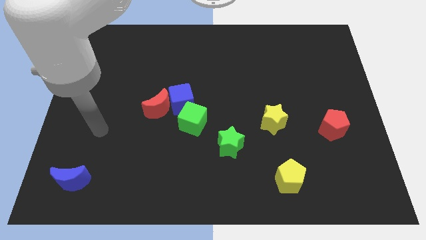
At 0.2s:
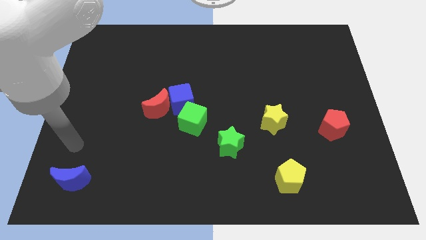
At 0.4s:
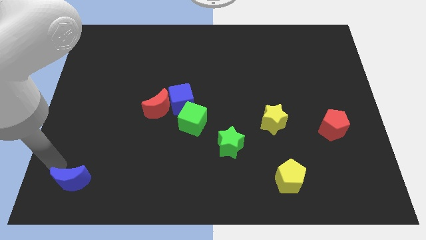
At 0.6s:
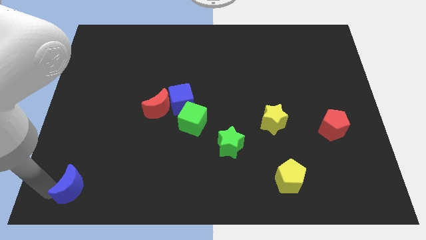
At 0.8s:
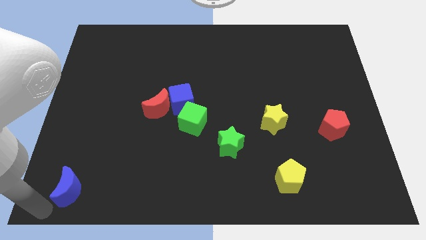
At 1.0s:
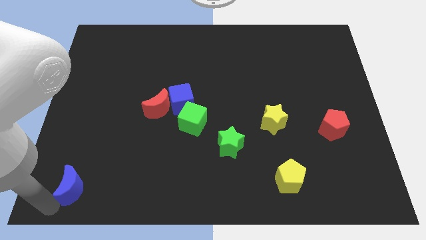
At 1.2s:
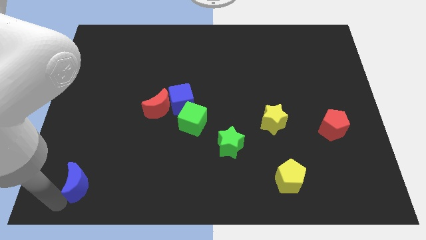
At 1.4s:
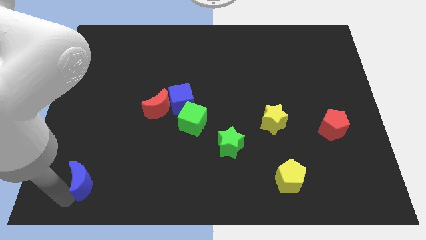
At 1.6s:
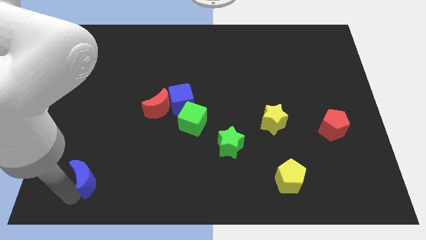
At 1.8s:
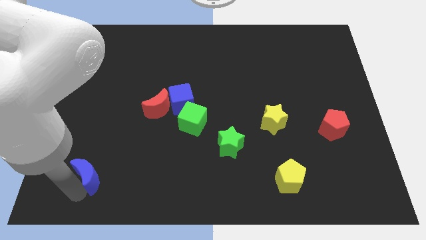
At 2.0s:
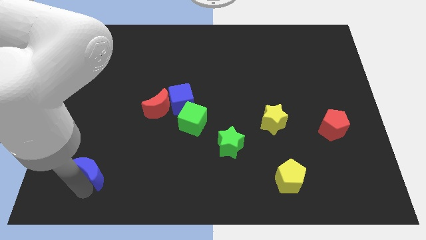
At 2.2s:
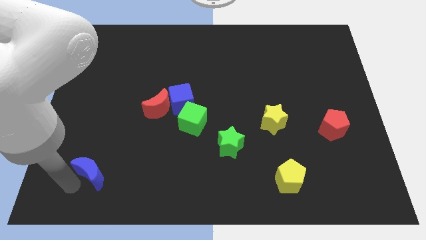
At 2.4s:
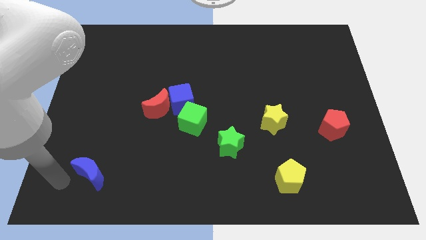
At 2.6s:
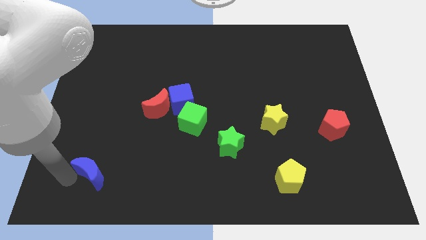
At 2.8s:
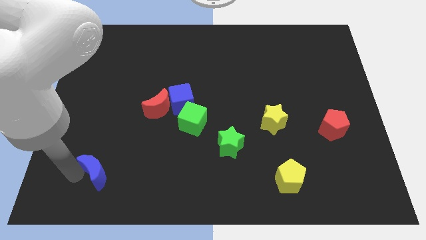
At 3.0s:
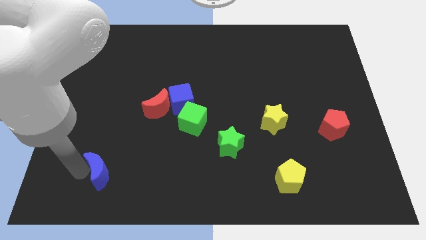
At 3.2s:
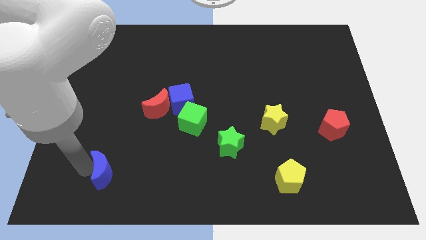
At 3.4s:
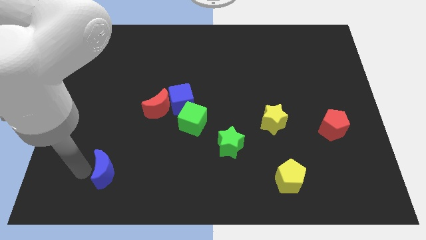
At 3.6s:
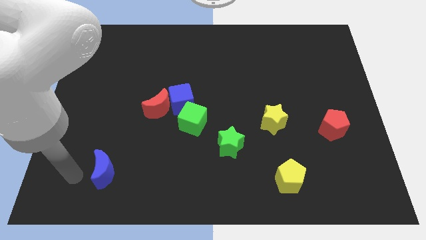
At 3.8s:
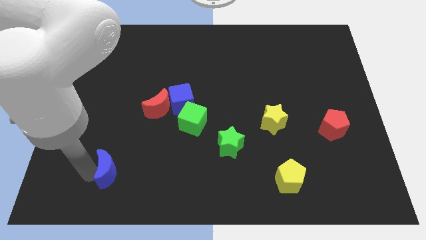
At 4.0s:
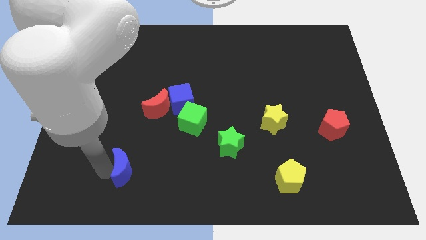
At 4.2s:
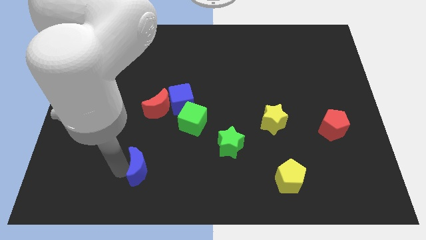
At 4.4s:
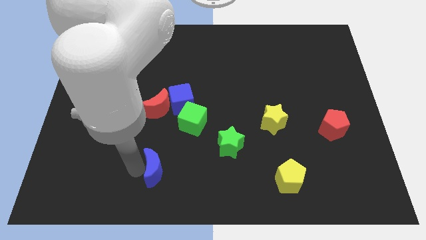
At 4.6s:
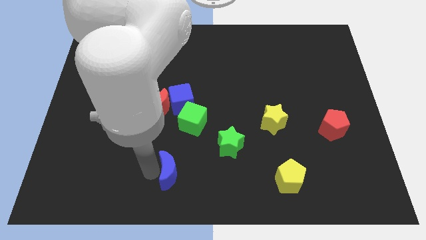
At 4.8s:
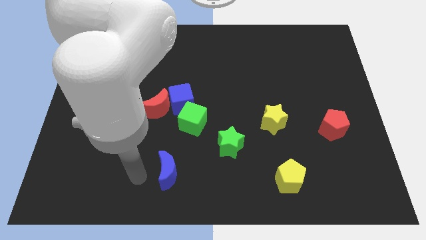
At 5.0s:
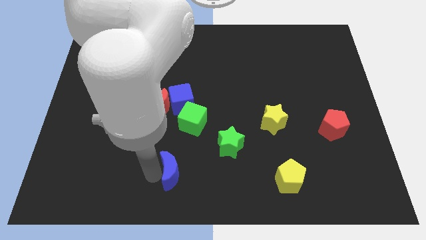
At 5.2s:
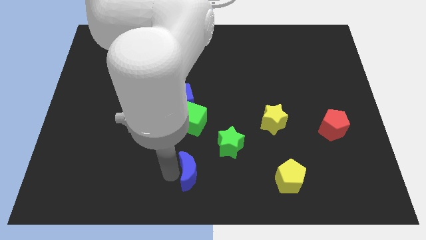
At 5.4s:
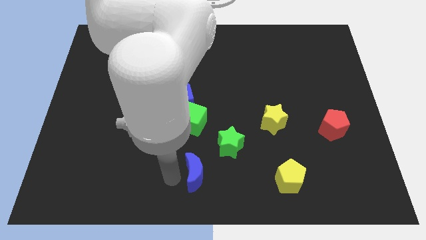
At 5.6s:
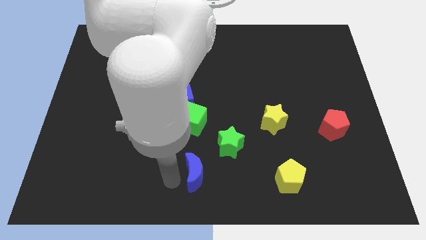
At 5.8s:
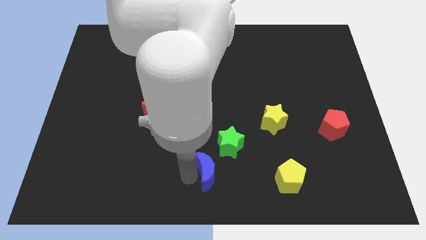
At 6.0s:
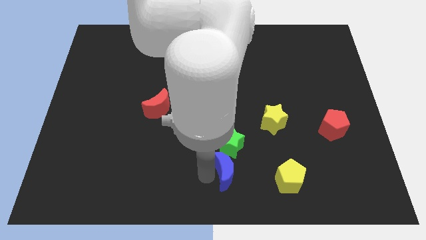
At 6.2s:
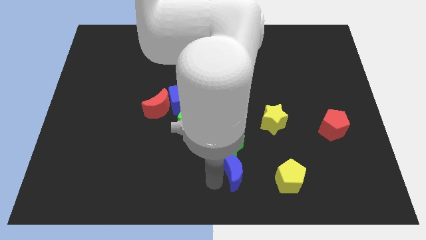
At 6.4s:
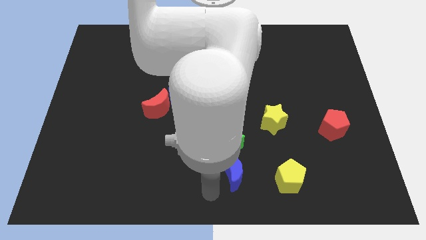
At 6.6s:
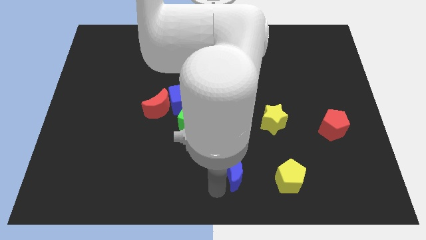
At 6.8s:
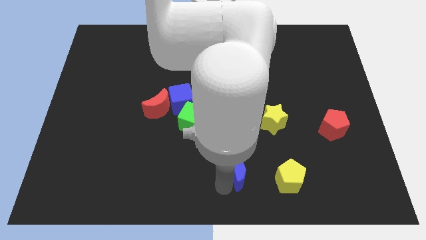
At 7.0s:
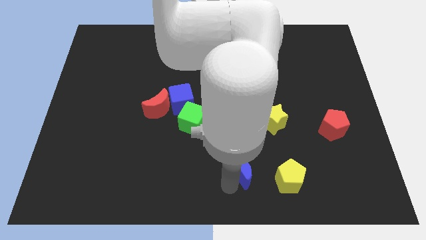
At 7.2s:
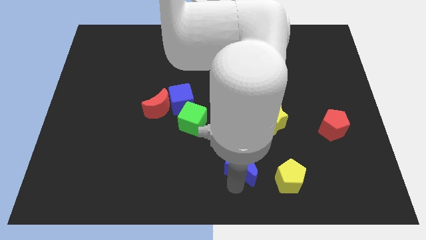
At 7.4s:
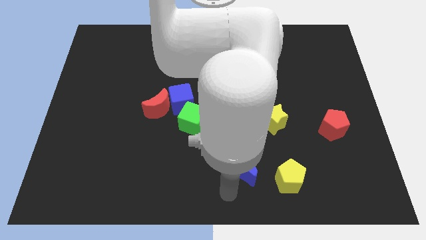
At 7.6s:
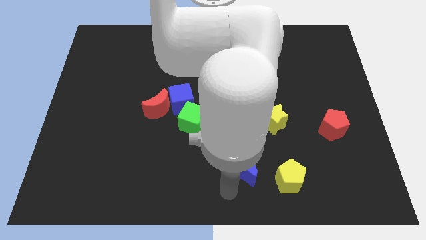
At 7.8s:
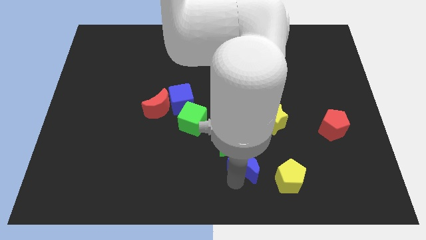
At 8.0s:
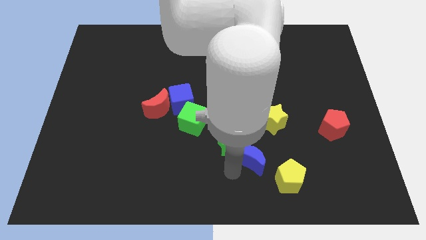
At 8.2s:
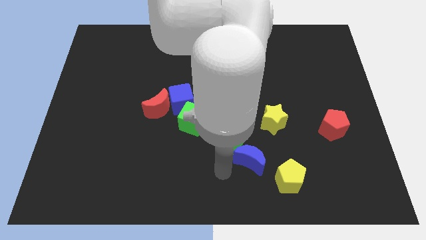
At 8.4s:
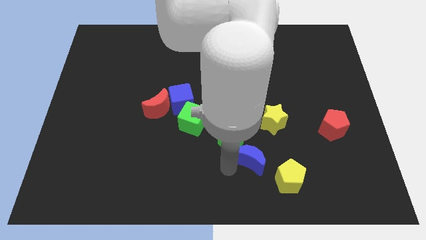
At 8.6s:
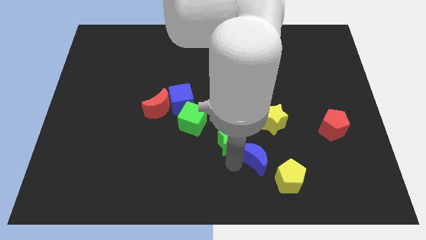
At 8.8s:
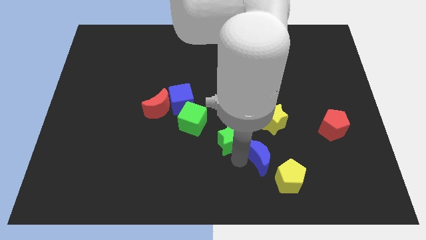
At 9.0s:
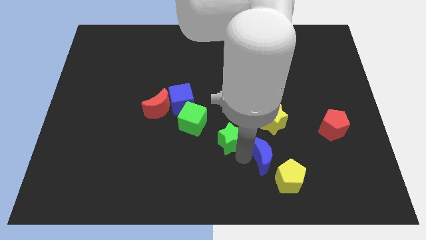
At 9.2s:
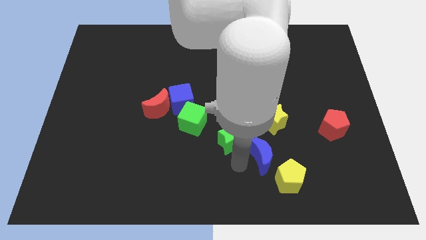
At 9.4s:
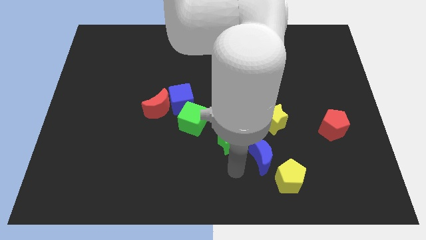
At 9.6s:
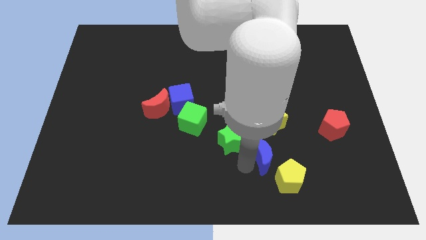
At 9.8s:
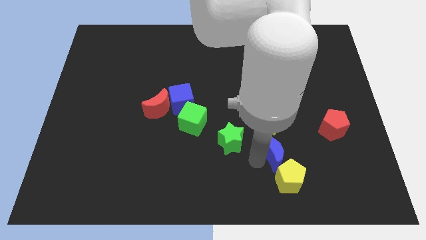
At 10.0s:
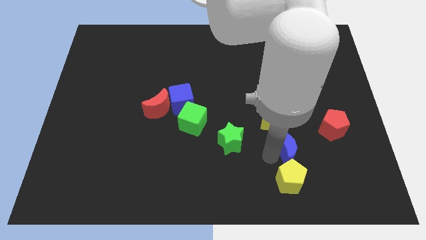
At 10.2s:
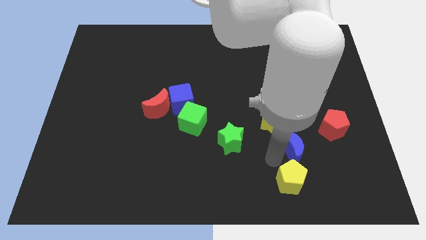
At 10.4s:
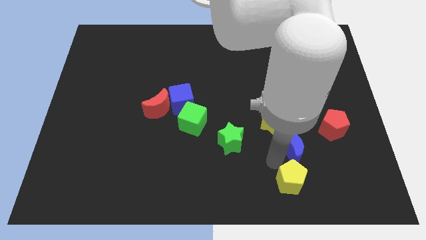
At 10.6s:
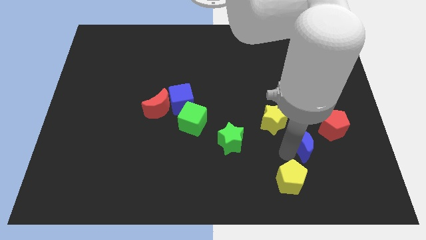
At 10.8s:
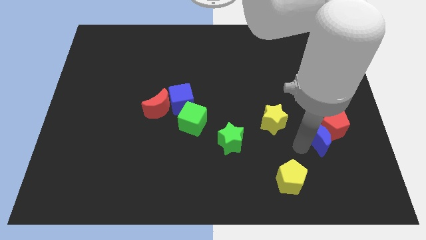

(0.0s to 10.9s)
move the blue moon to the red pentagon

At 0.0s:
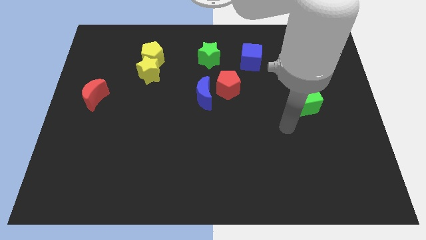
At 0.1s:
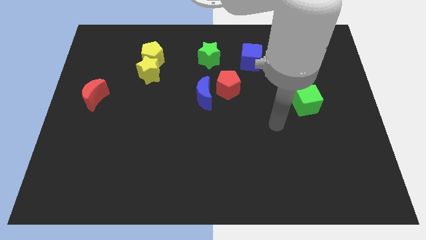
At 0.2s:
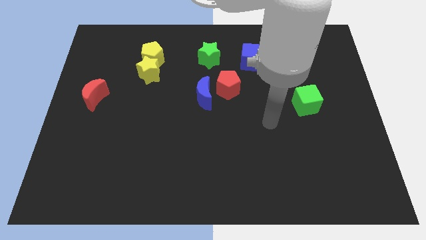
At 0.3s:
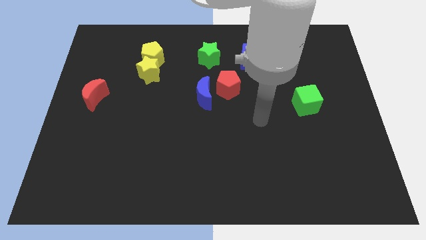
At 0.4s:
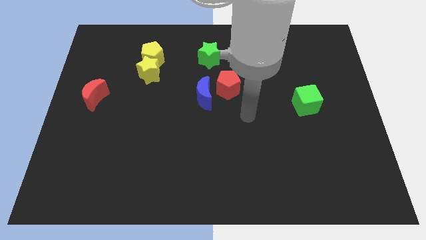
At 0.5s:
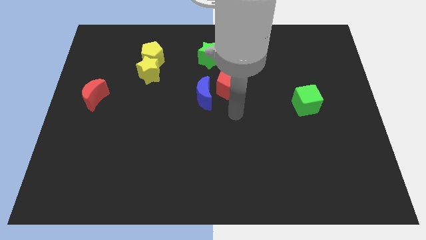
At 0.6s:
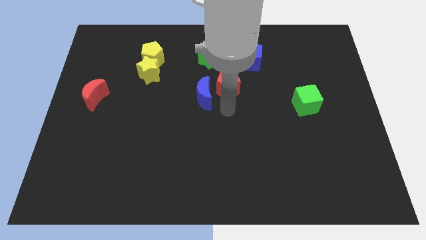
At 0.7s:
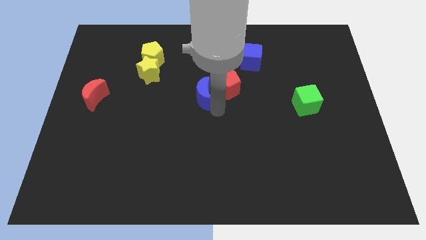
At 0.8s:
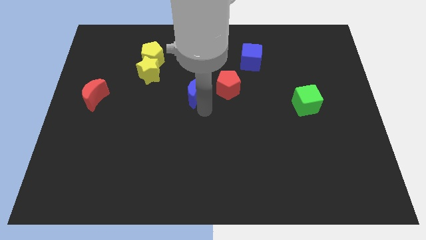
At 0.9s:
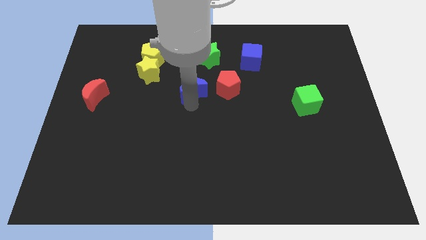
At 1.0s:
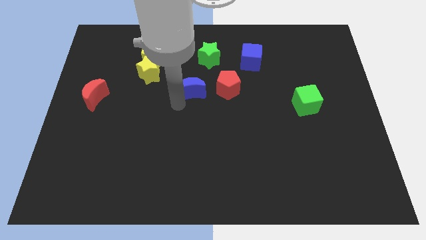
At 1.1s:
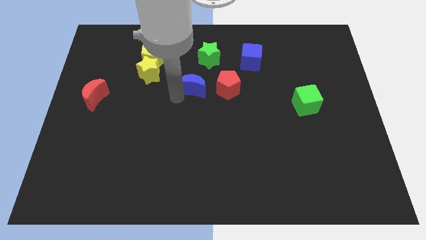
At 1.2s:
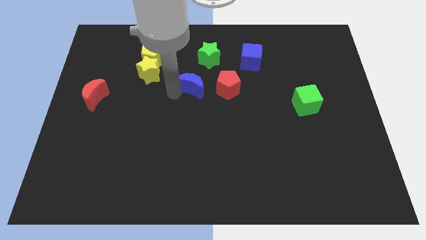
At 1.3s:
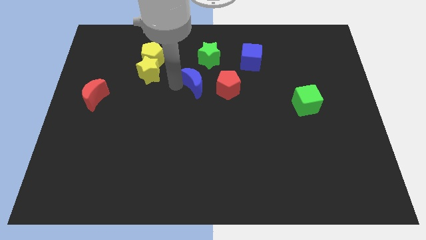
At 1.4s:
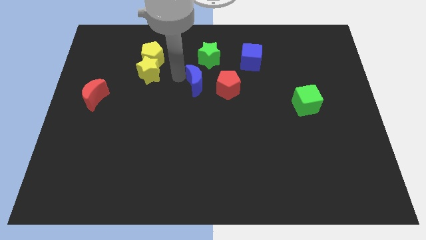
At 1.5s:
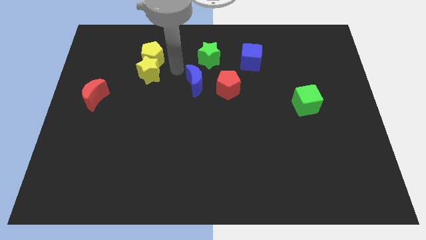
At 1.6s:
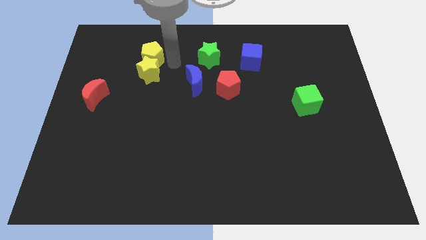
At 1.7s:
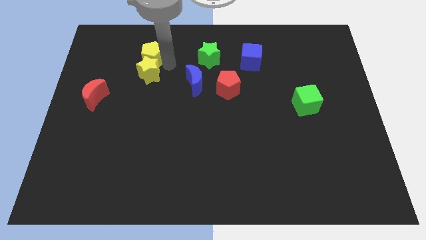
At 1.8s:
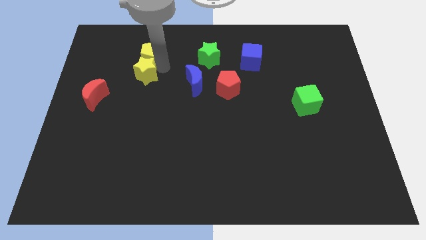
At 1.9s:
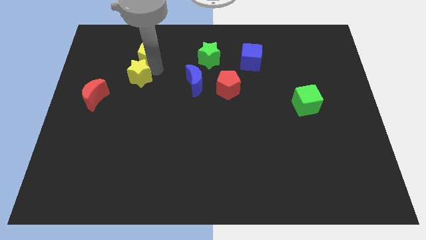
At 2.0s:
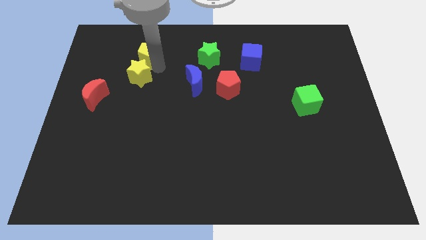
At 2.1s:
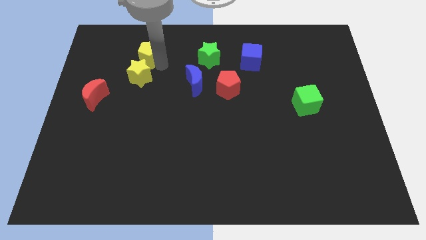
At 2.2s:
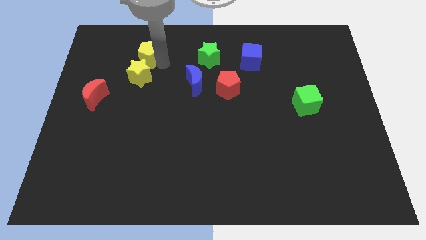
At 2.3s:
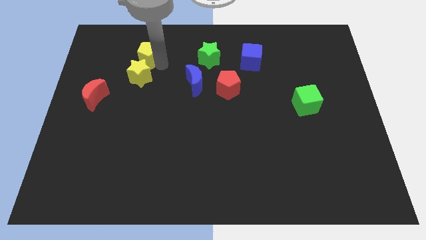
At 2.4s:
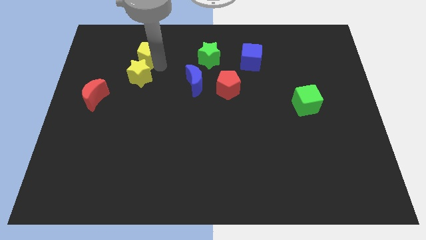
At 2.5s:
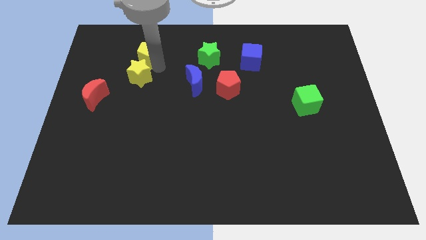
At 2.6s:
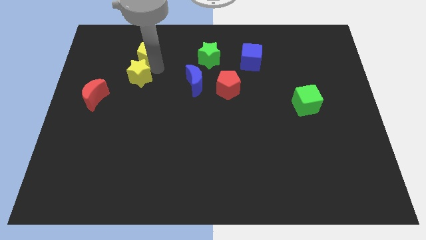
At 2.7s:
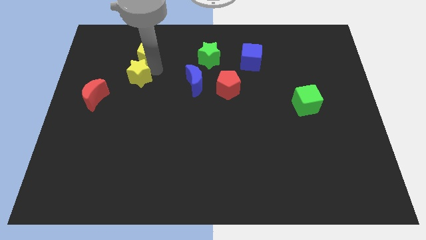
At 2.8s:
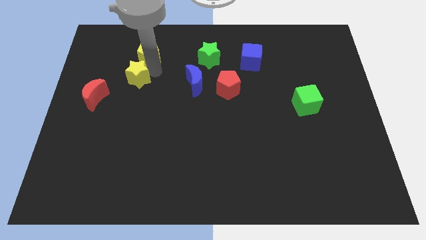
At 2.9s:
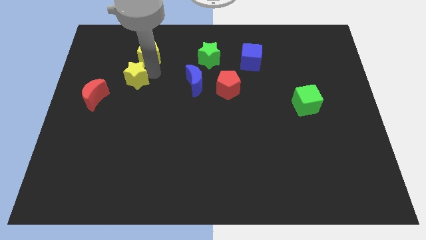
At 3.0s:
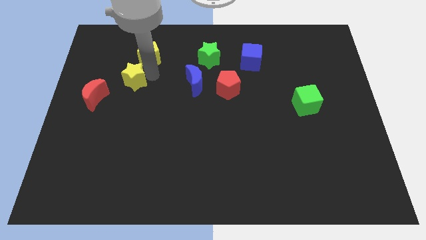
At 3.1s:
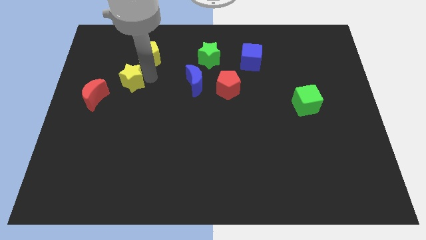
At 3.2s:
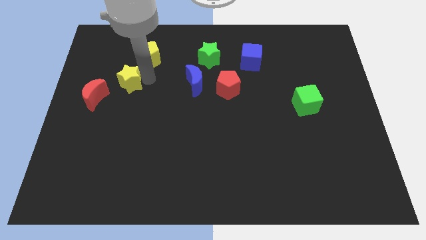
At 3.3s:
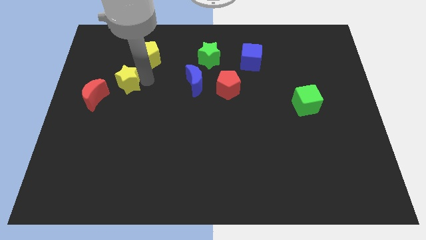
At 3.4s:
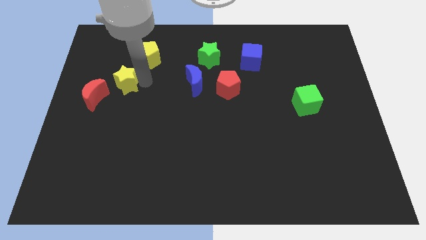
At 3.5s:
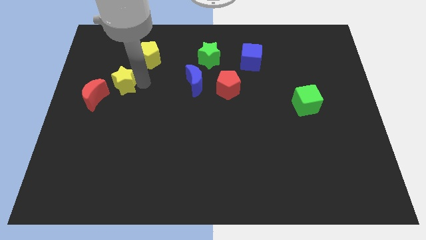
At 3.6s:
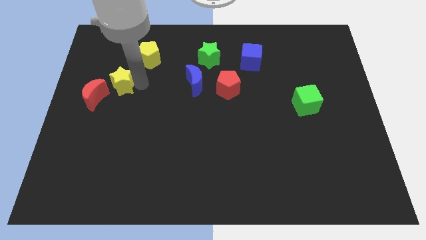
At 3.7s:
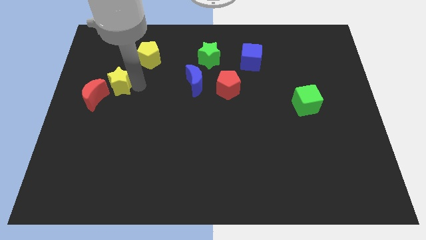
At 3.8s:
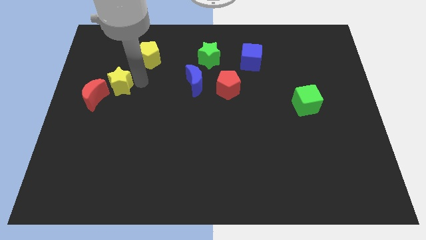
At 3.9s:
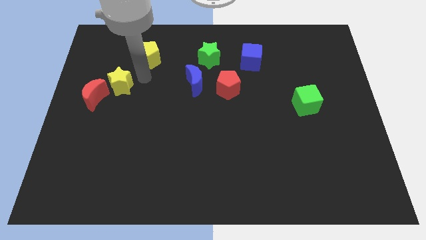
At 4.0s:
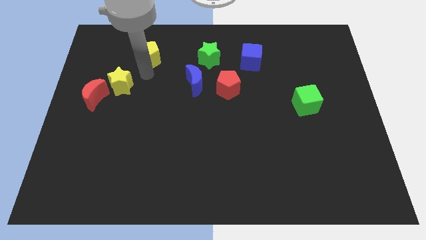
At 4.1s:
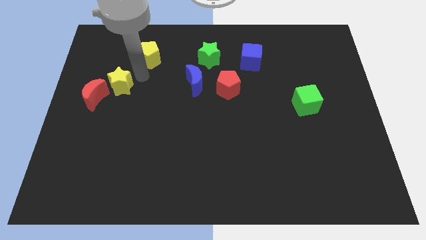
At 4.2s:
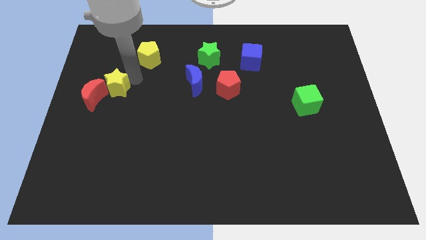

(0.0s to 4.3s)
put the yellow star to the red moon
